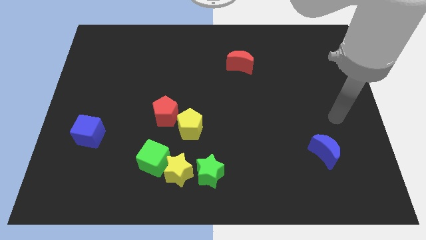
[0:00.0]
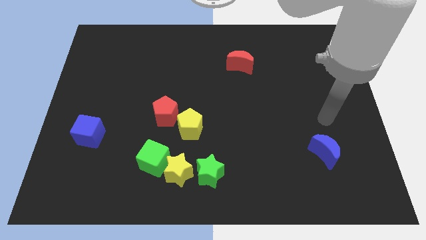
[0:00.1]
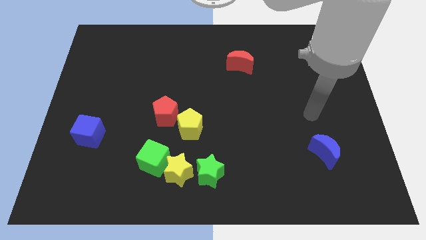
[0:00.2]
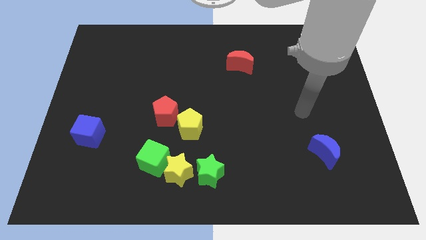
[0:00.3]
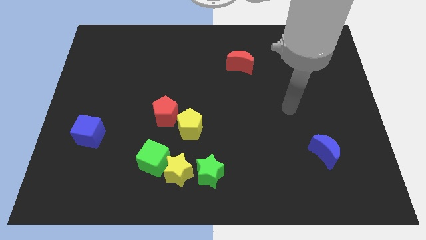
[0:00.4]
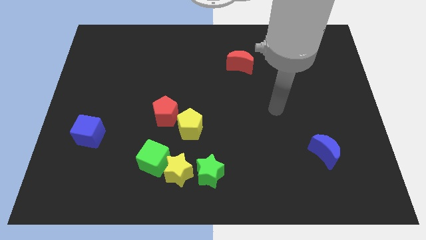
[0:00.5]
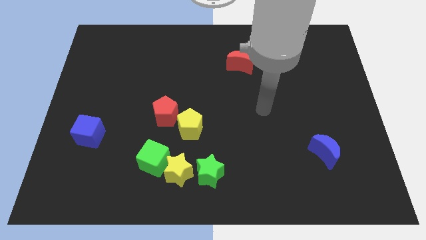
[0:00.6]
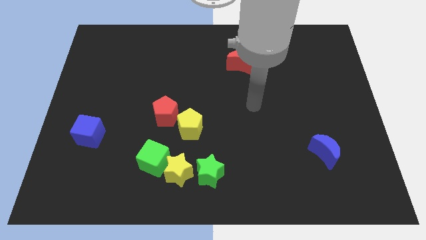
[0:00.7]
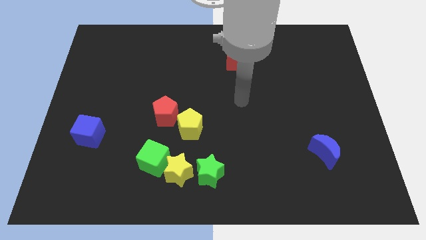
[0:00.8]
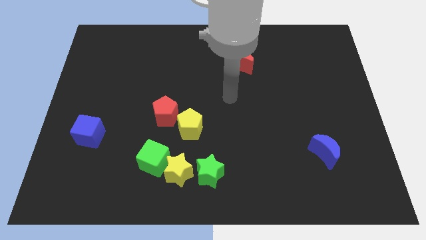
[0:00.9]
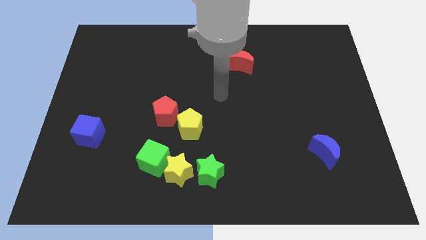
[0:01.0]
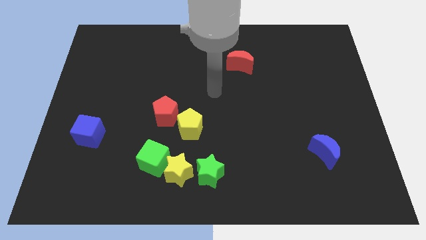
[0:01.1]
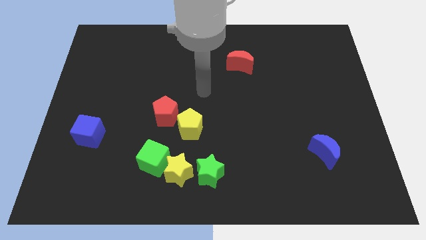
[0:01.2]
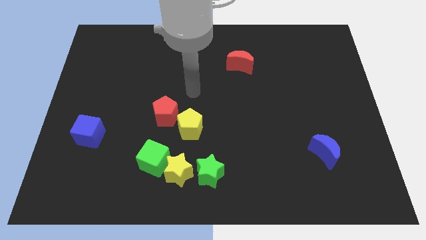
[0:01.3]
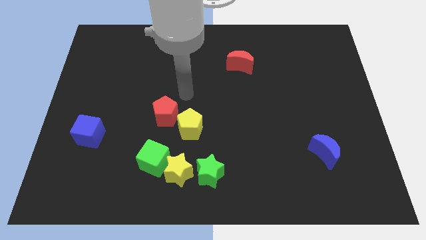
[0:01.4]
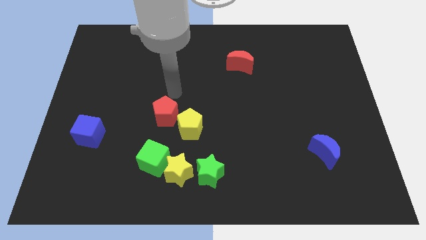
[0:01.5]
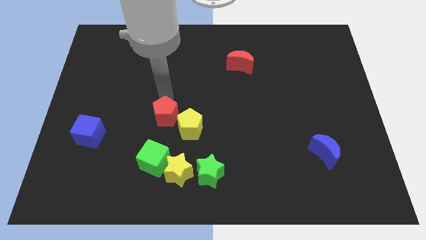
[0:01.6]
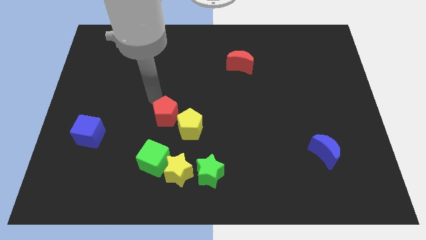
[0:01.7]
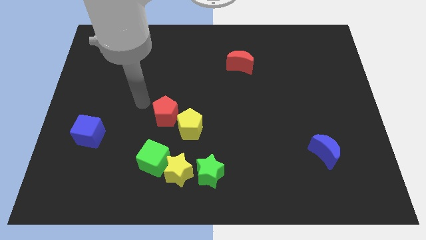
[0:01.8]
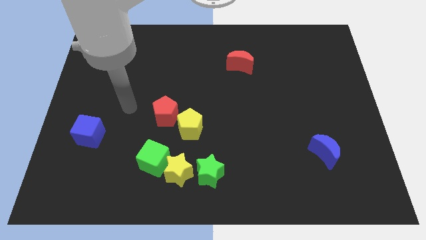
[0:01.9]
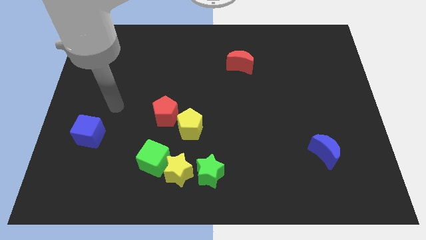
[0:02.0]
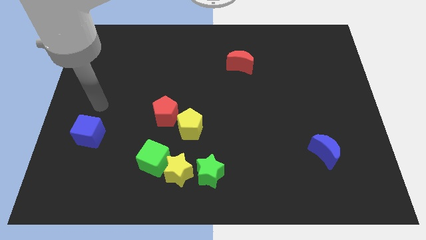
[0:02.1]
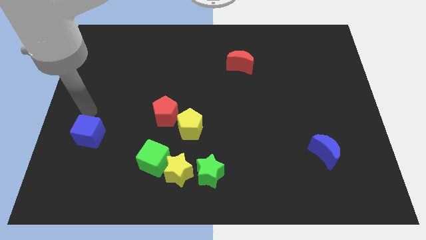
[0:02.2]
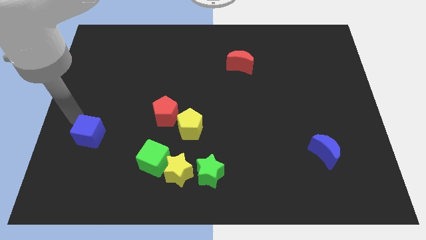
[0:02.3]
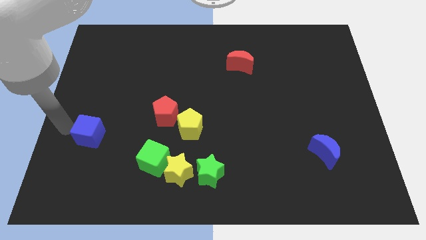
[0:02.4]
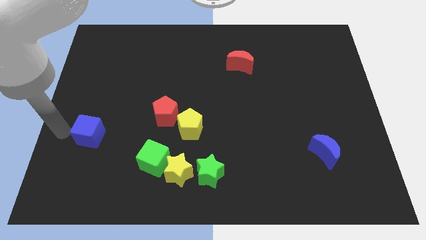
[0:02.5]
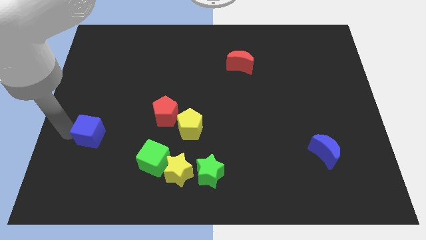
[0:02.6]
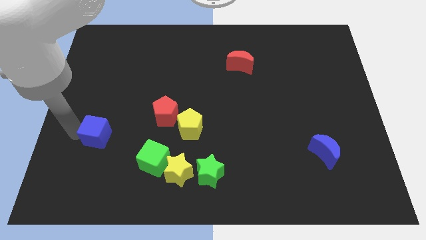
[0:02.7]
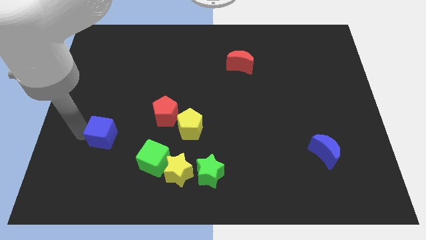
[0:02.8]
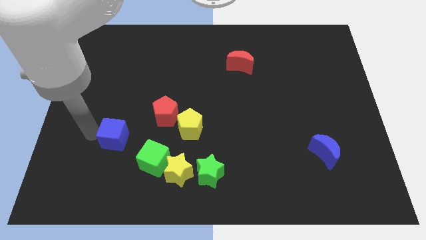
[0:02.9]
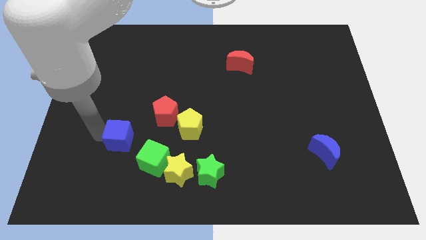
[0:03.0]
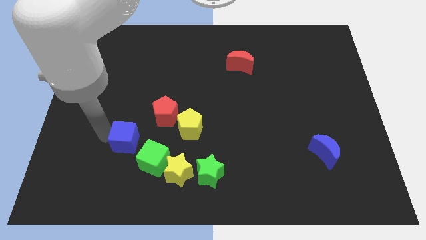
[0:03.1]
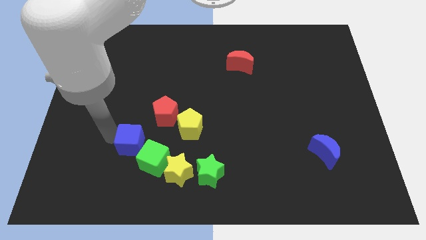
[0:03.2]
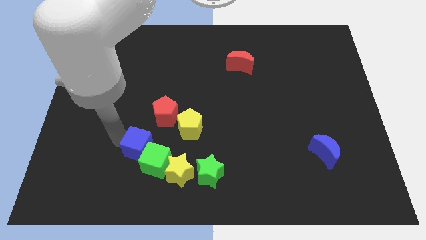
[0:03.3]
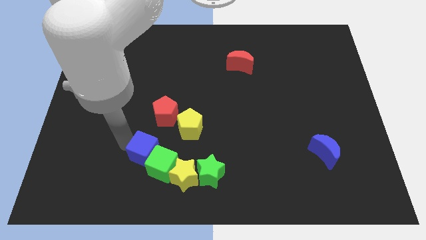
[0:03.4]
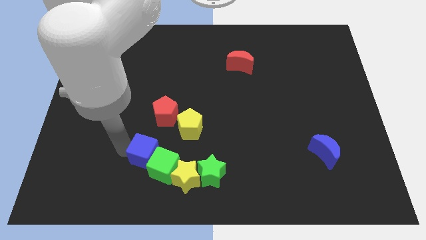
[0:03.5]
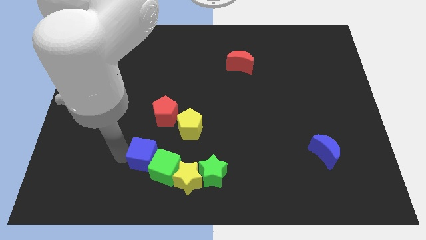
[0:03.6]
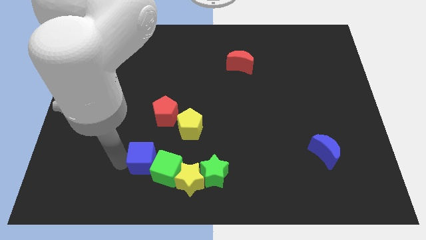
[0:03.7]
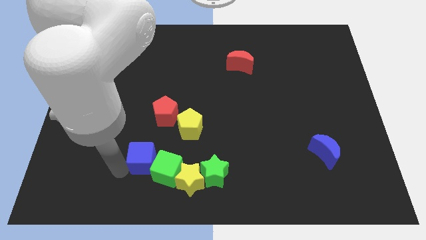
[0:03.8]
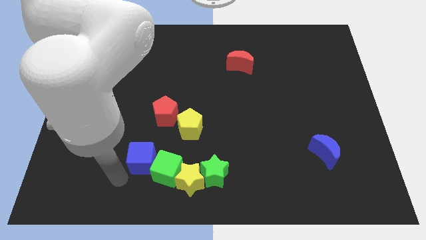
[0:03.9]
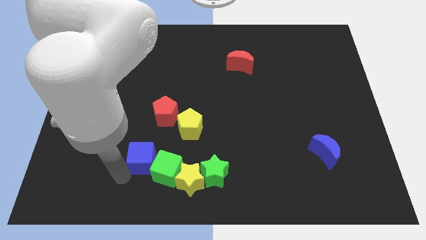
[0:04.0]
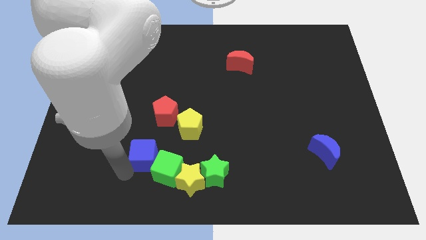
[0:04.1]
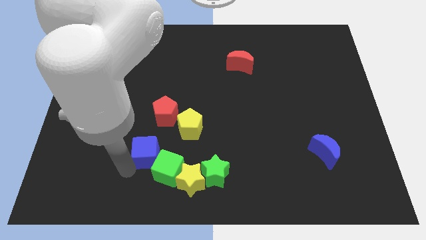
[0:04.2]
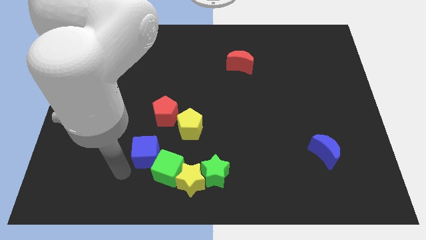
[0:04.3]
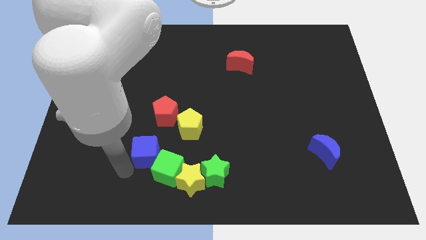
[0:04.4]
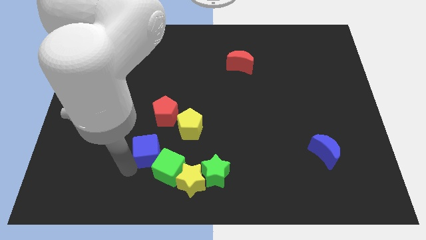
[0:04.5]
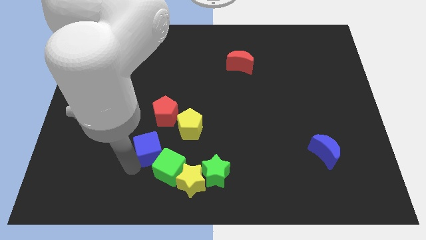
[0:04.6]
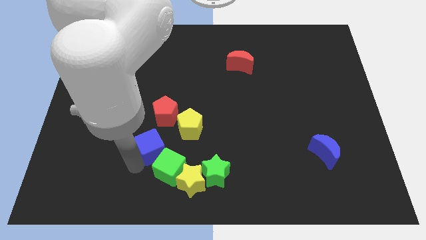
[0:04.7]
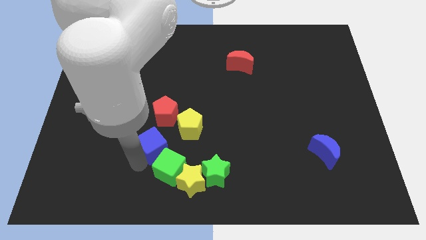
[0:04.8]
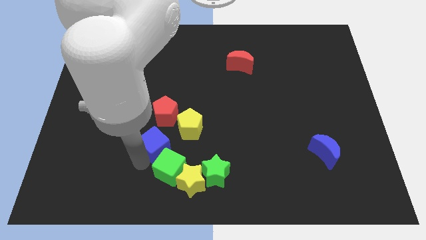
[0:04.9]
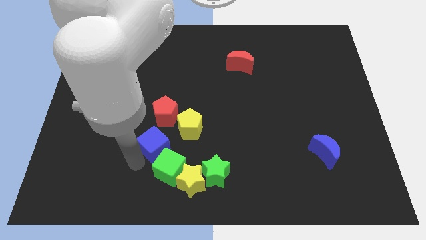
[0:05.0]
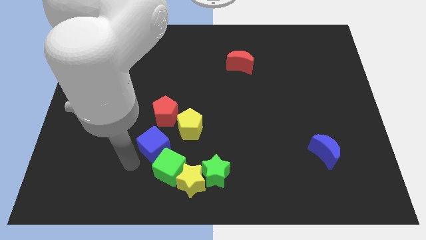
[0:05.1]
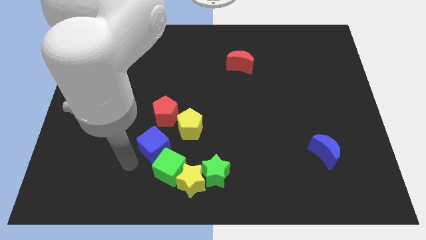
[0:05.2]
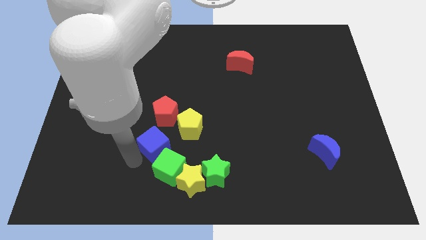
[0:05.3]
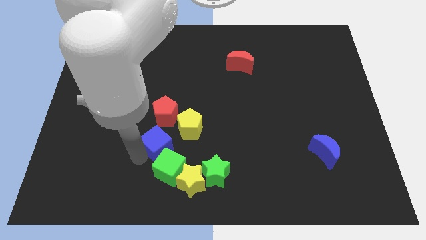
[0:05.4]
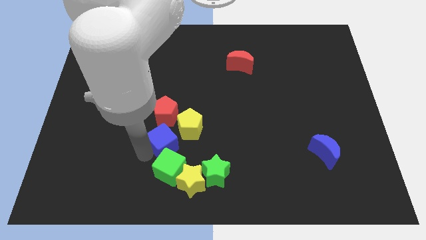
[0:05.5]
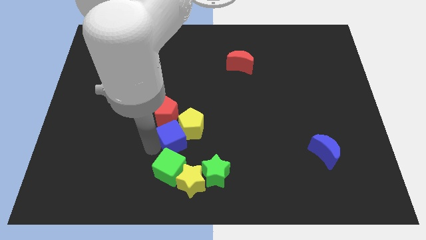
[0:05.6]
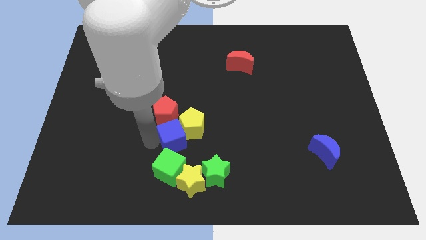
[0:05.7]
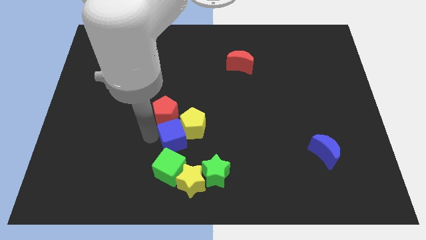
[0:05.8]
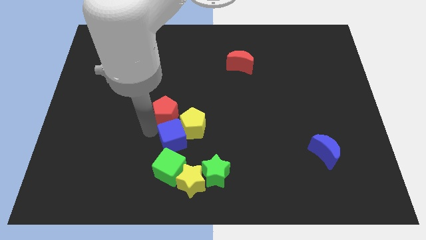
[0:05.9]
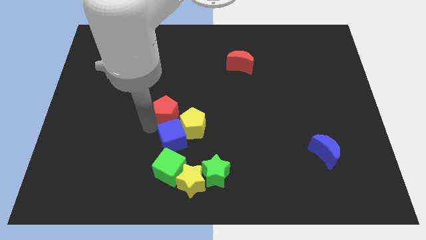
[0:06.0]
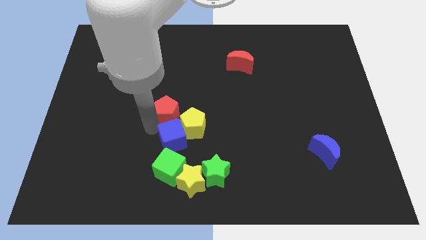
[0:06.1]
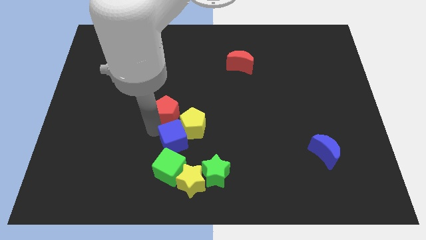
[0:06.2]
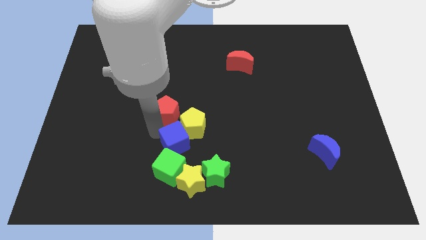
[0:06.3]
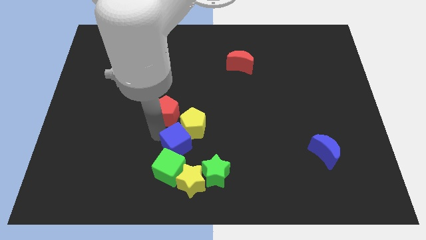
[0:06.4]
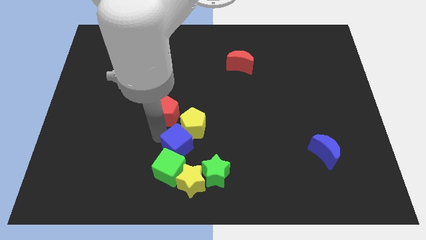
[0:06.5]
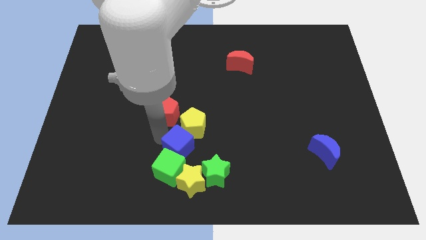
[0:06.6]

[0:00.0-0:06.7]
push the blue cube to the right

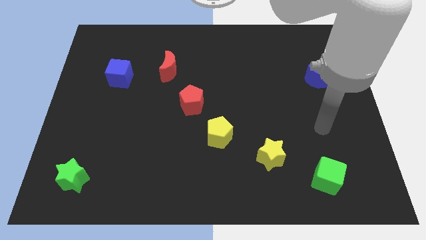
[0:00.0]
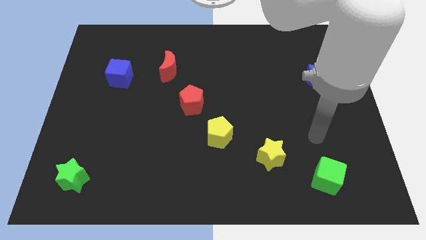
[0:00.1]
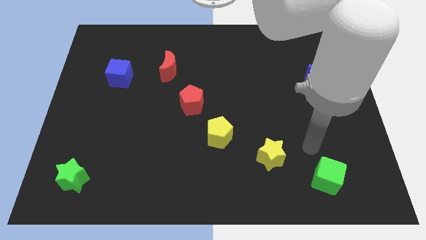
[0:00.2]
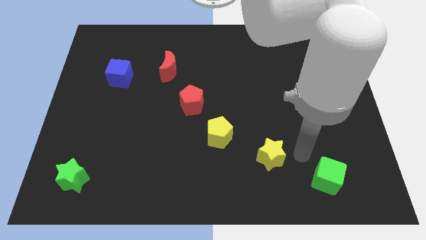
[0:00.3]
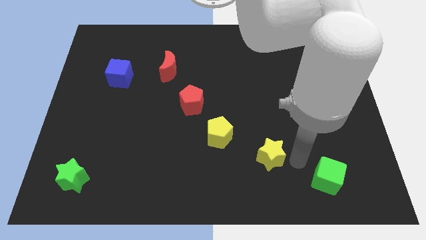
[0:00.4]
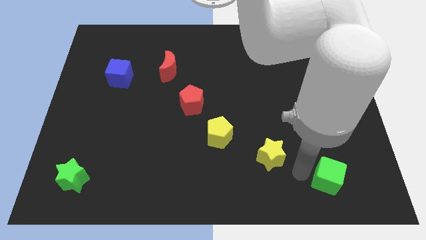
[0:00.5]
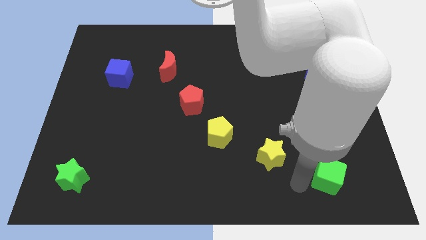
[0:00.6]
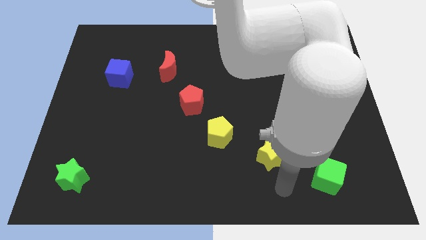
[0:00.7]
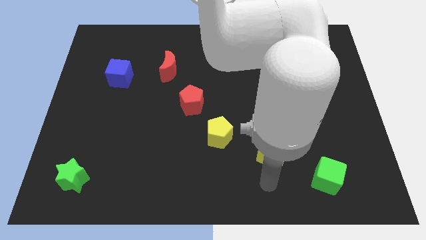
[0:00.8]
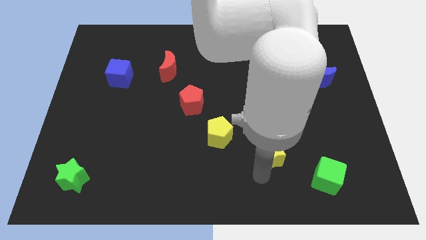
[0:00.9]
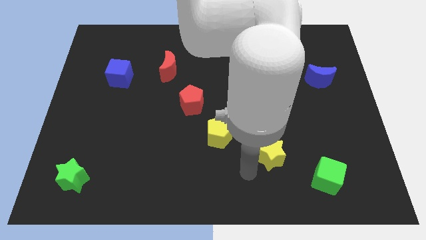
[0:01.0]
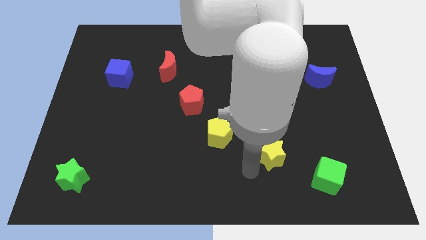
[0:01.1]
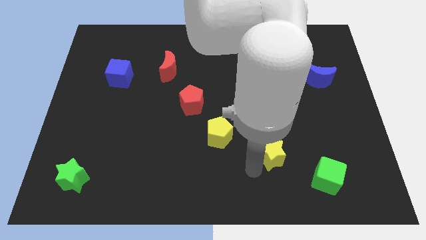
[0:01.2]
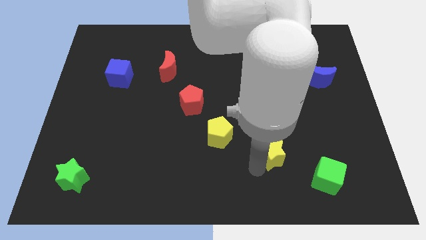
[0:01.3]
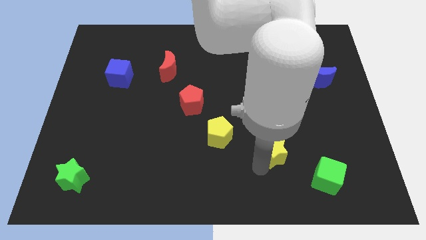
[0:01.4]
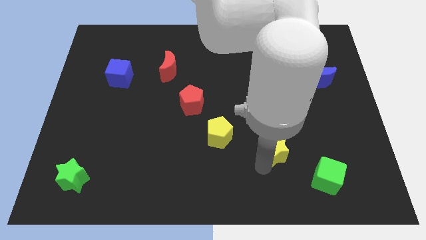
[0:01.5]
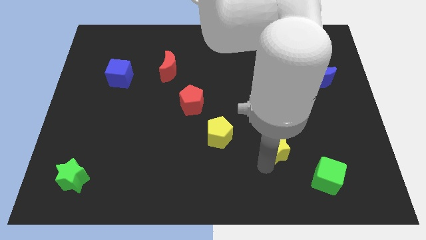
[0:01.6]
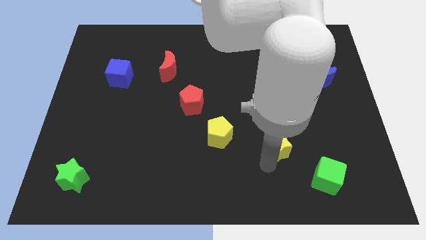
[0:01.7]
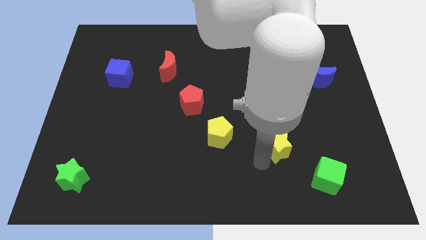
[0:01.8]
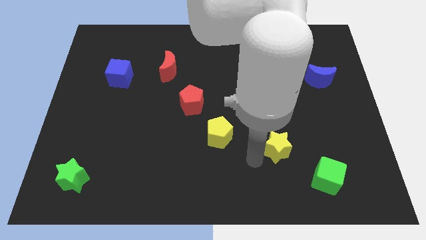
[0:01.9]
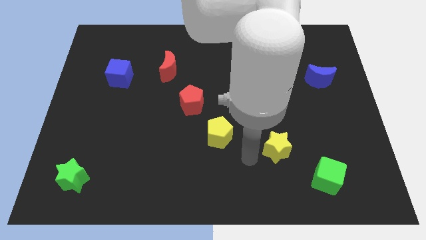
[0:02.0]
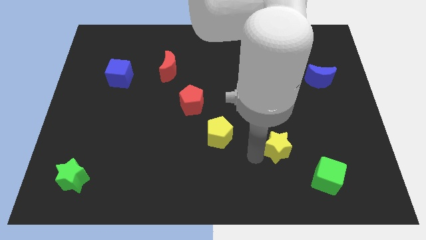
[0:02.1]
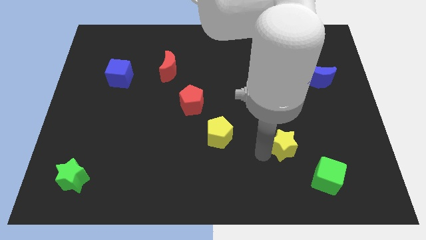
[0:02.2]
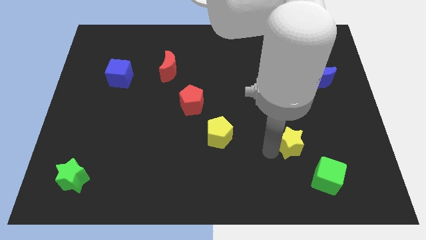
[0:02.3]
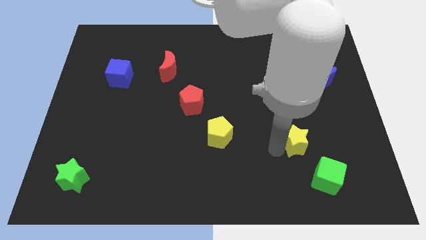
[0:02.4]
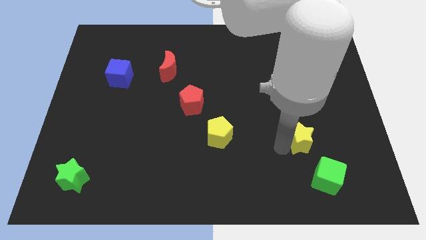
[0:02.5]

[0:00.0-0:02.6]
push the yellow star a bit up and then right
